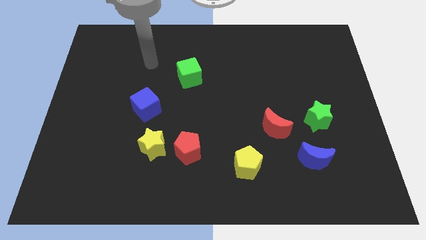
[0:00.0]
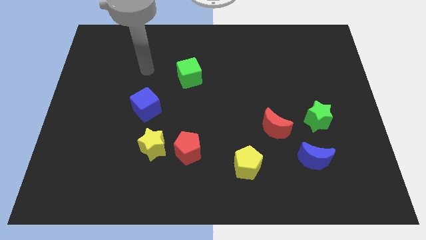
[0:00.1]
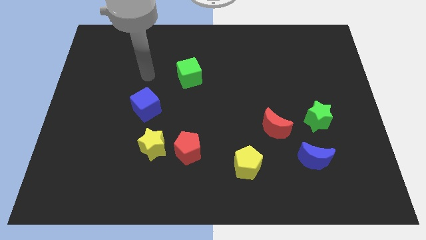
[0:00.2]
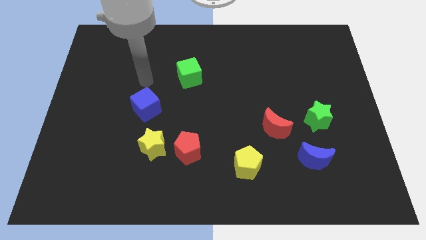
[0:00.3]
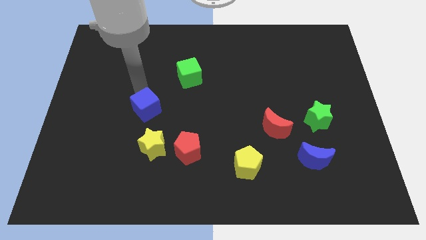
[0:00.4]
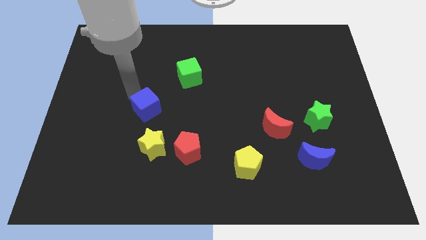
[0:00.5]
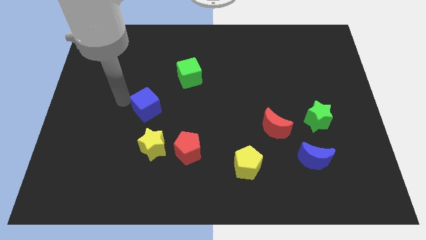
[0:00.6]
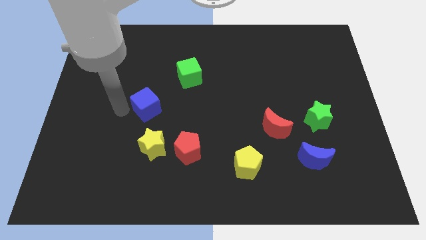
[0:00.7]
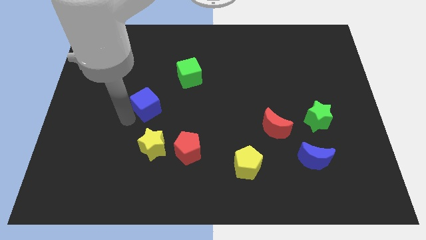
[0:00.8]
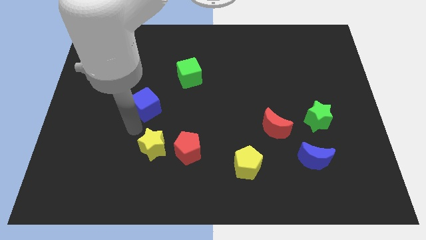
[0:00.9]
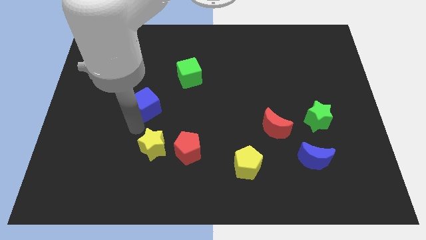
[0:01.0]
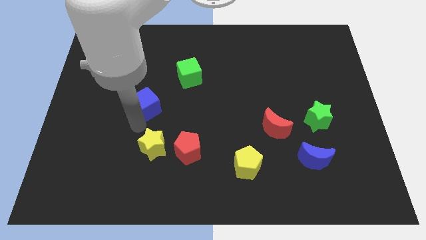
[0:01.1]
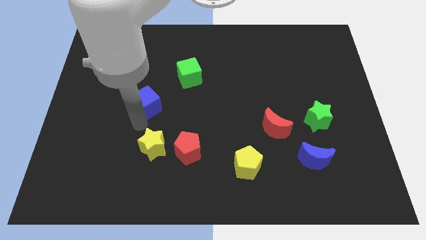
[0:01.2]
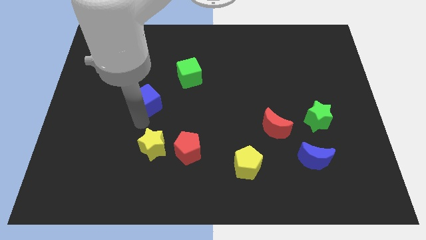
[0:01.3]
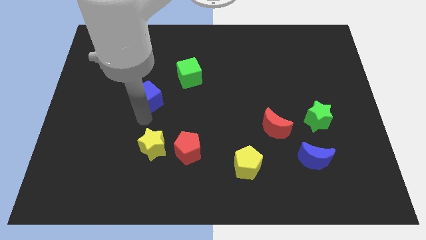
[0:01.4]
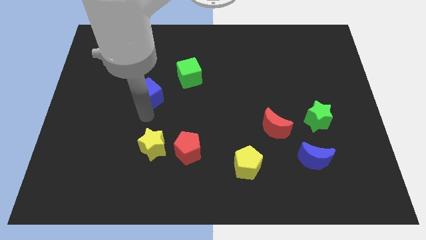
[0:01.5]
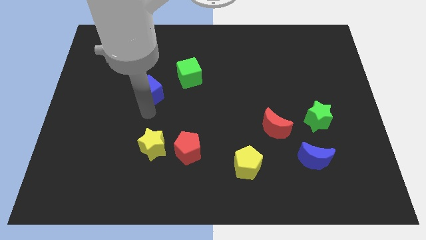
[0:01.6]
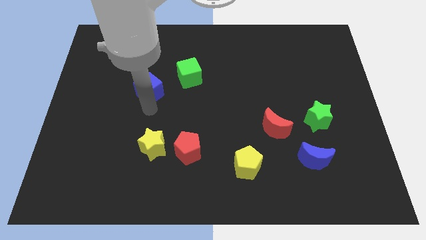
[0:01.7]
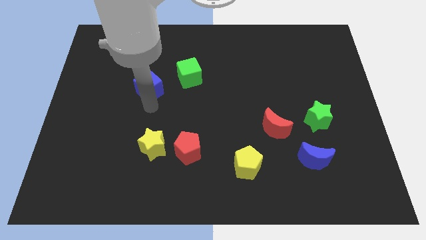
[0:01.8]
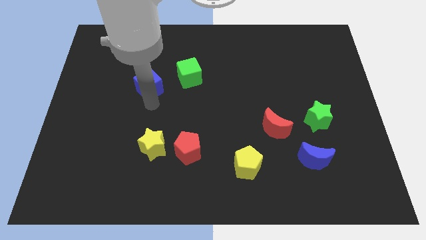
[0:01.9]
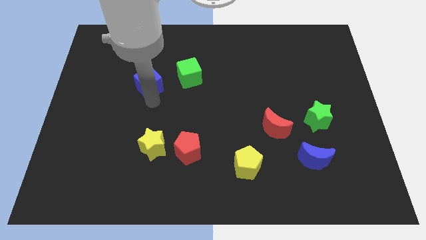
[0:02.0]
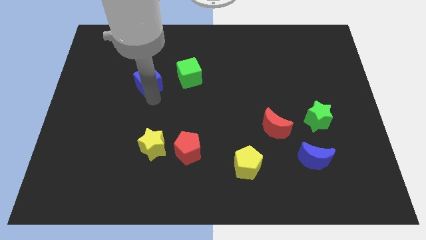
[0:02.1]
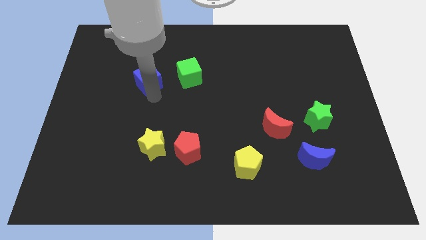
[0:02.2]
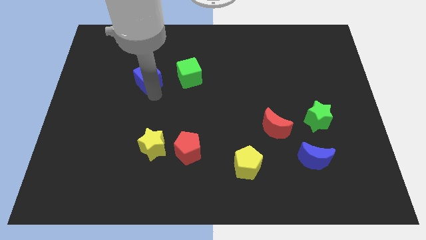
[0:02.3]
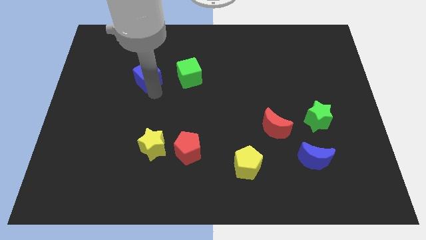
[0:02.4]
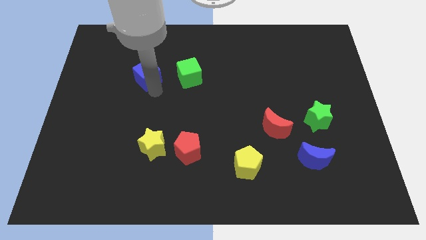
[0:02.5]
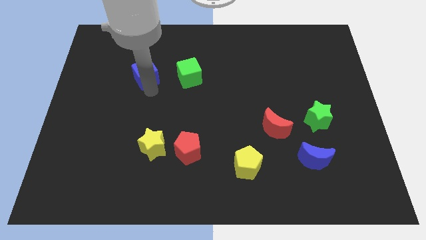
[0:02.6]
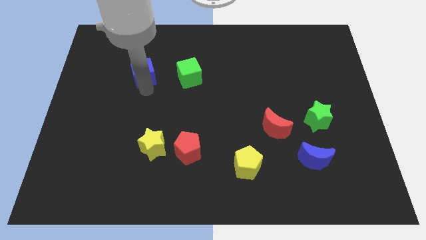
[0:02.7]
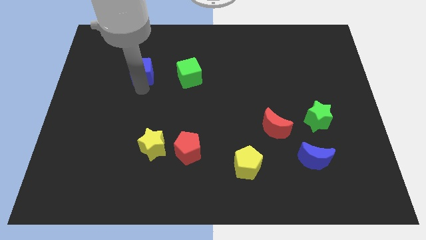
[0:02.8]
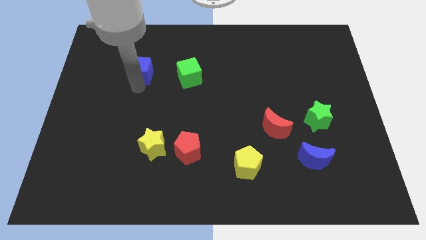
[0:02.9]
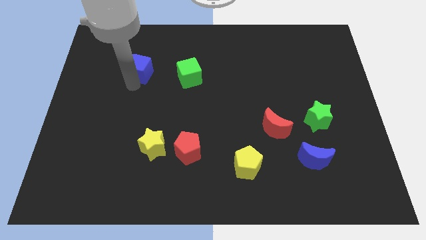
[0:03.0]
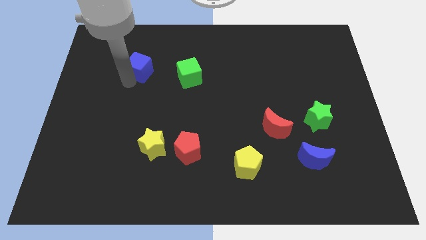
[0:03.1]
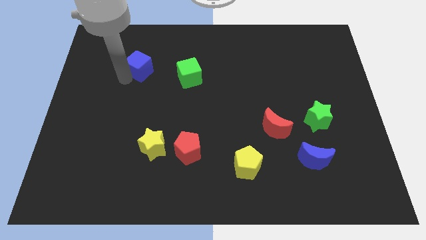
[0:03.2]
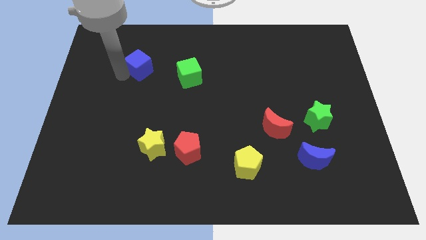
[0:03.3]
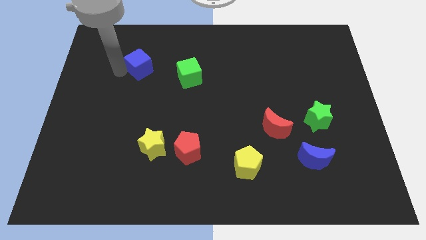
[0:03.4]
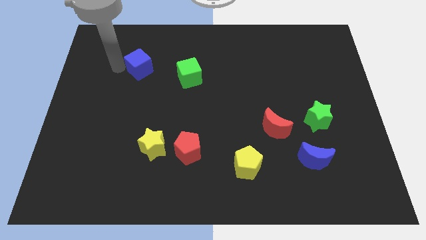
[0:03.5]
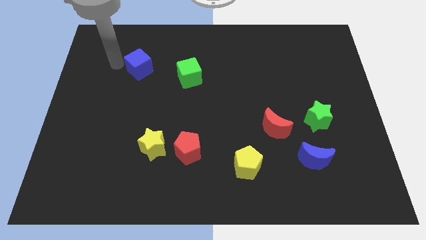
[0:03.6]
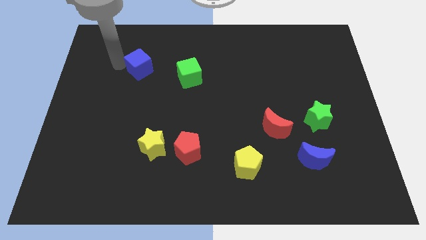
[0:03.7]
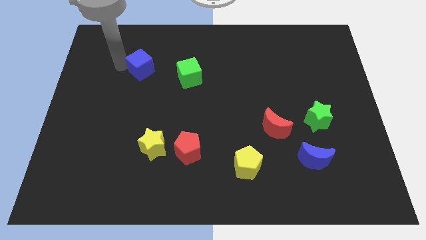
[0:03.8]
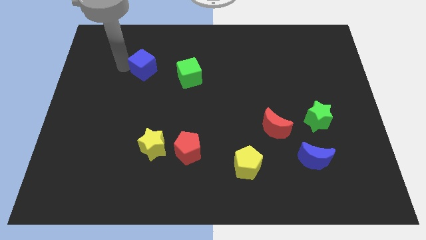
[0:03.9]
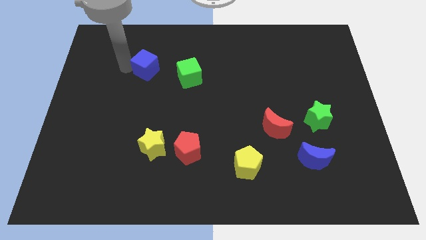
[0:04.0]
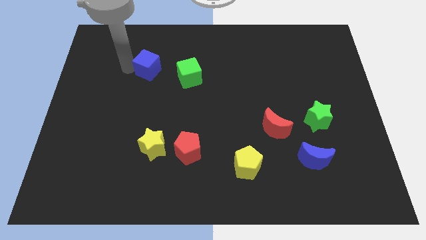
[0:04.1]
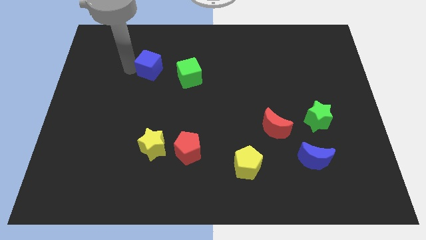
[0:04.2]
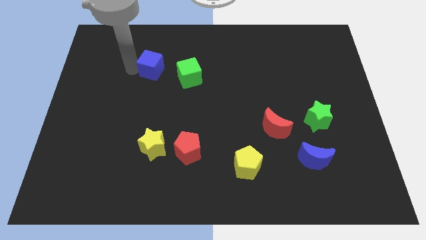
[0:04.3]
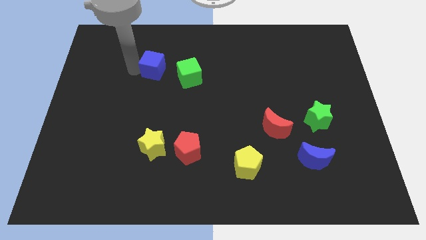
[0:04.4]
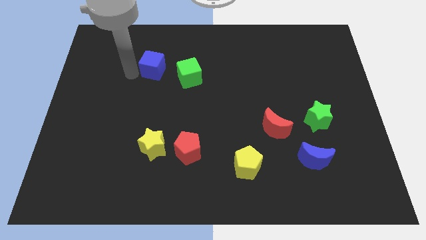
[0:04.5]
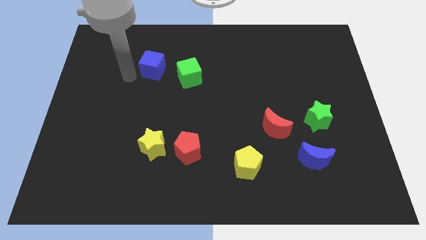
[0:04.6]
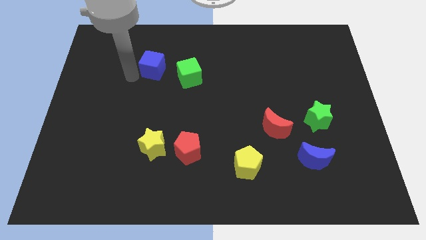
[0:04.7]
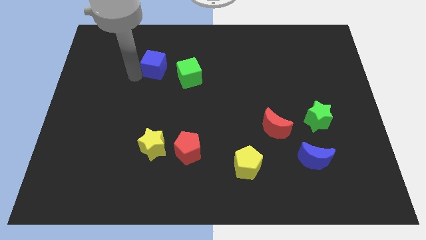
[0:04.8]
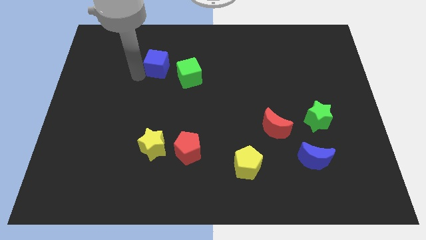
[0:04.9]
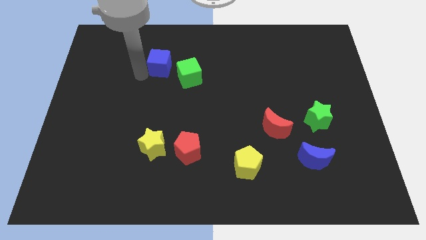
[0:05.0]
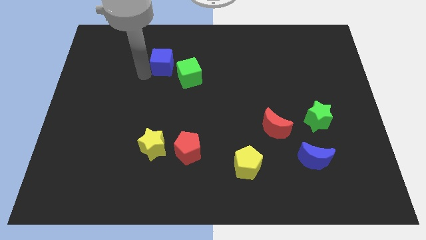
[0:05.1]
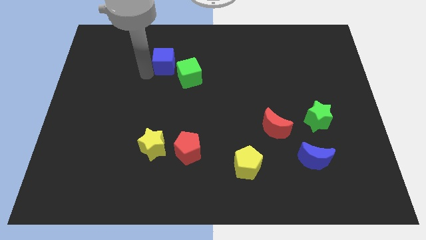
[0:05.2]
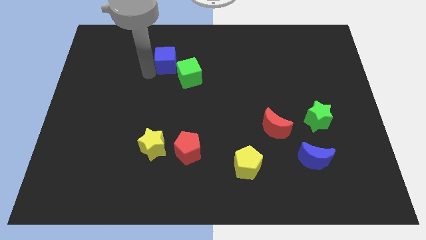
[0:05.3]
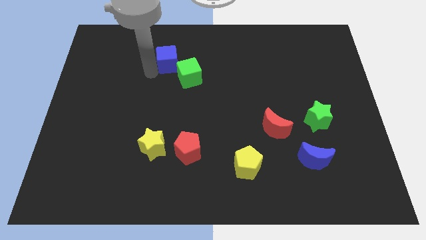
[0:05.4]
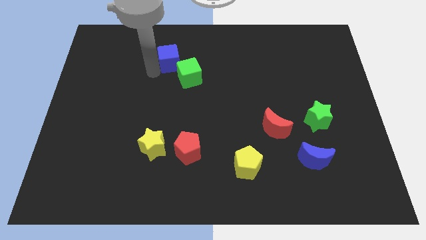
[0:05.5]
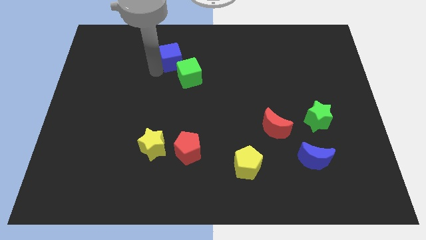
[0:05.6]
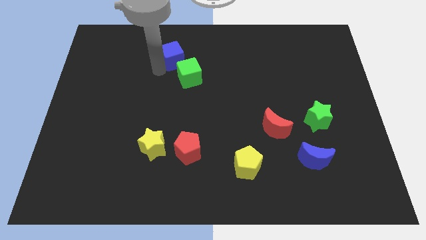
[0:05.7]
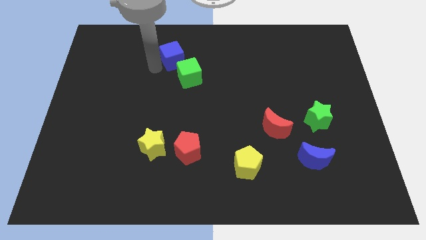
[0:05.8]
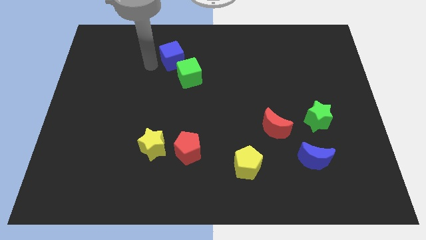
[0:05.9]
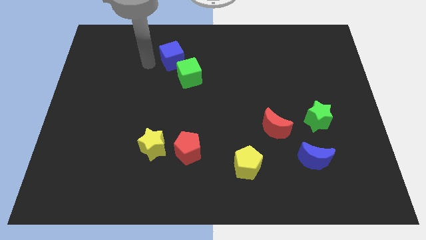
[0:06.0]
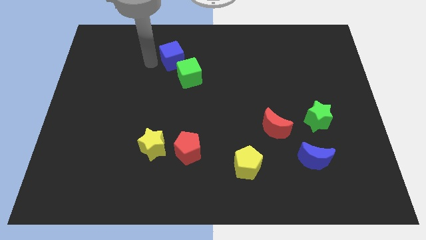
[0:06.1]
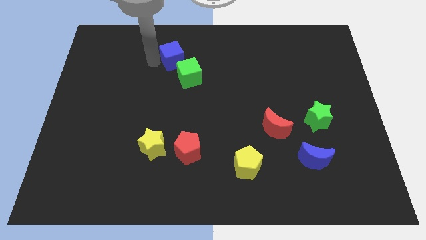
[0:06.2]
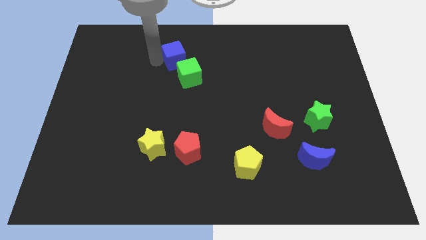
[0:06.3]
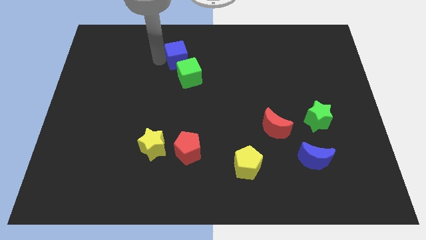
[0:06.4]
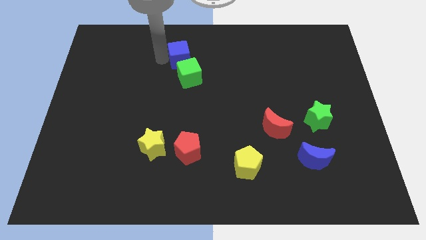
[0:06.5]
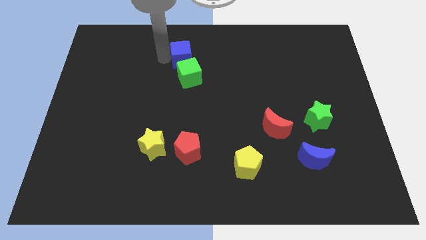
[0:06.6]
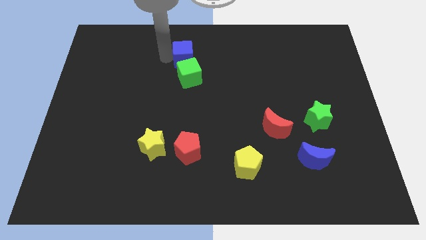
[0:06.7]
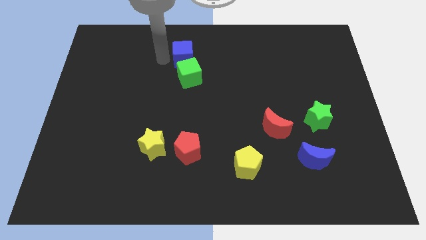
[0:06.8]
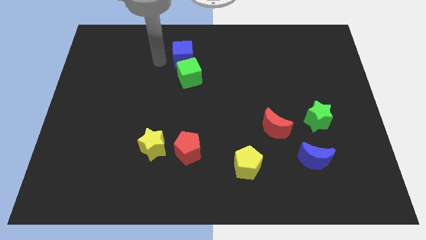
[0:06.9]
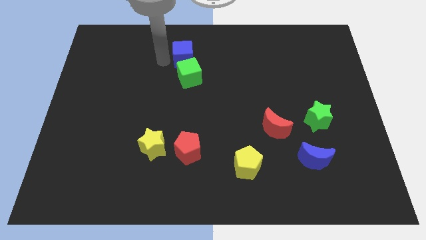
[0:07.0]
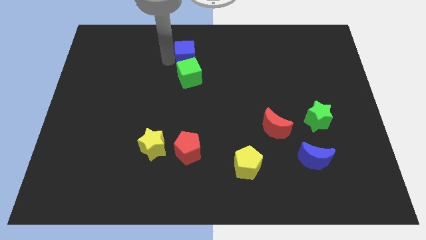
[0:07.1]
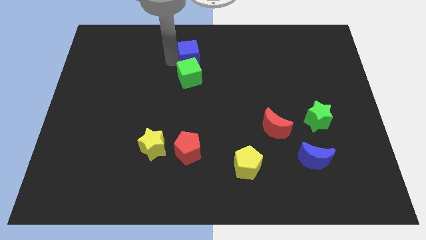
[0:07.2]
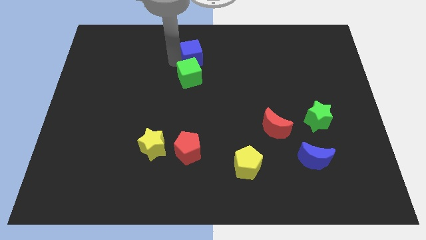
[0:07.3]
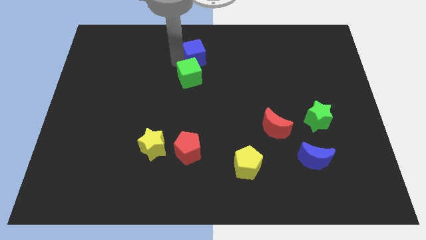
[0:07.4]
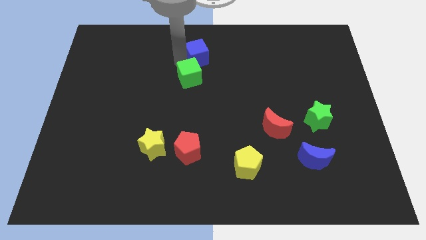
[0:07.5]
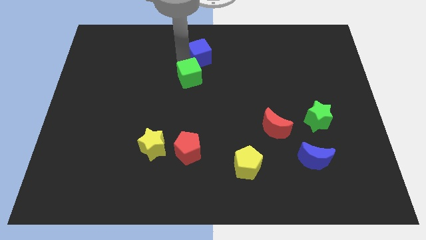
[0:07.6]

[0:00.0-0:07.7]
slide the blue cube to the top side
